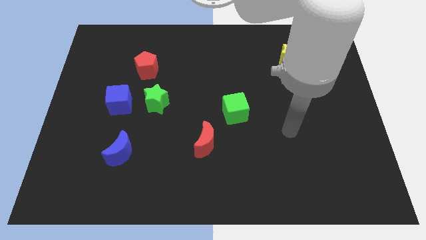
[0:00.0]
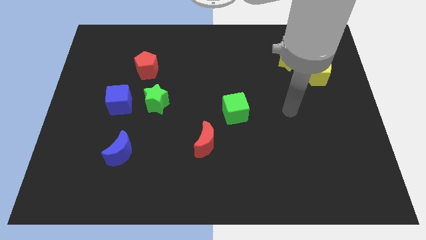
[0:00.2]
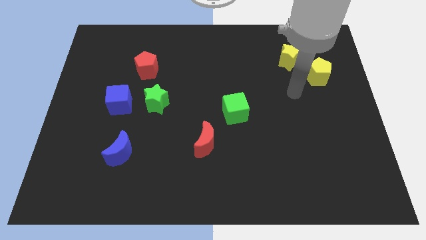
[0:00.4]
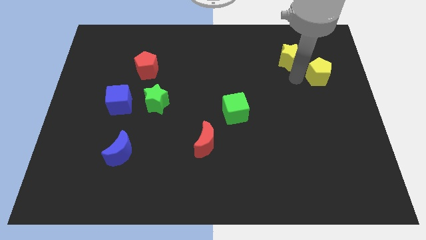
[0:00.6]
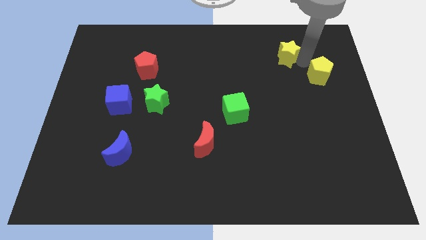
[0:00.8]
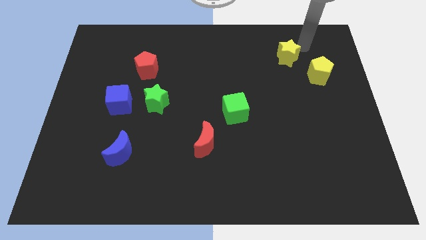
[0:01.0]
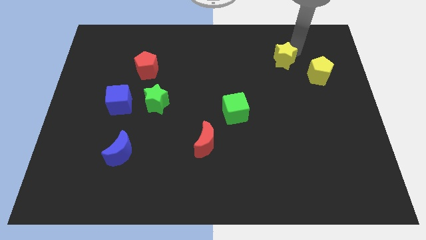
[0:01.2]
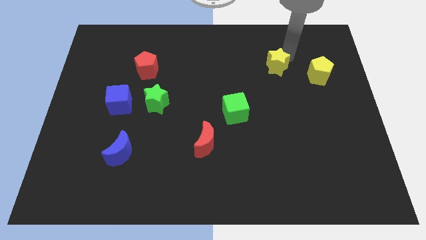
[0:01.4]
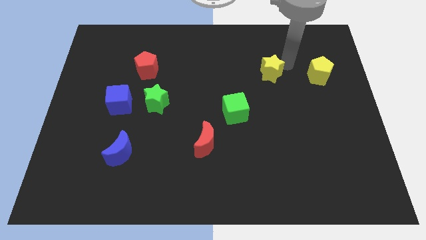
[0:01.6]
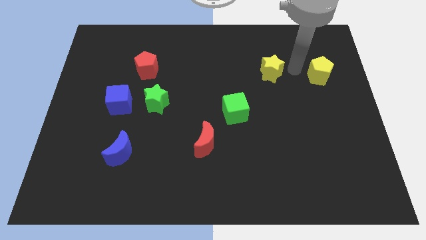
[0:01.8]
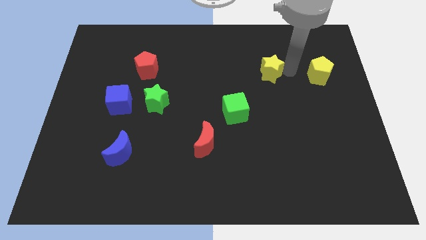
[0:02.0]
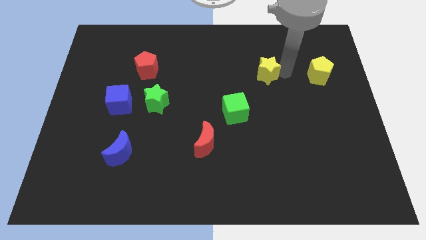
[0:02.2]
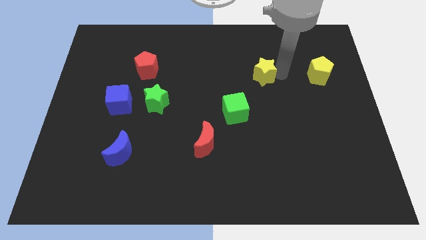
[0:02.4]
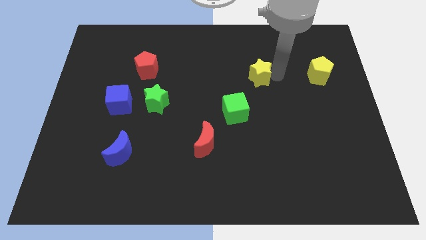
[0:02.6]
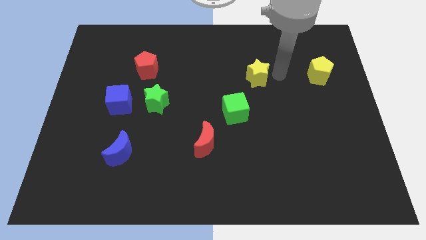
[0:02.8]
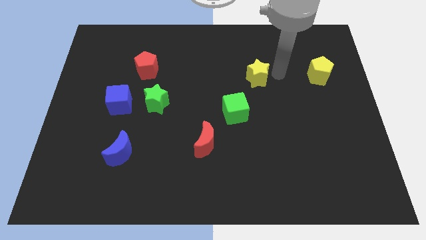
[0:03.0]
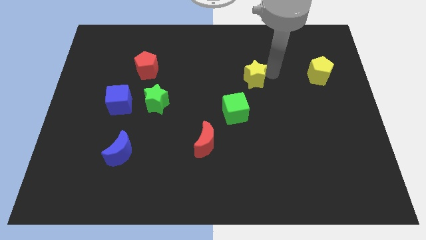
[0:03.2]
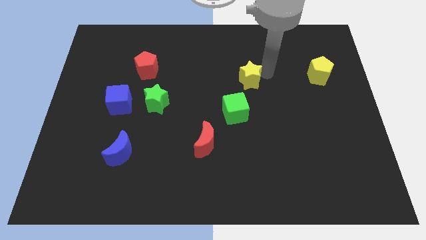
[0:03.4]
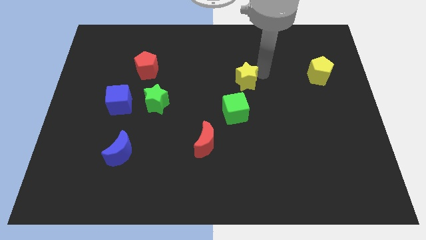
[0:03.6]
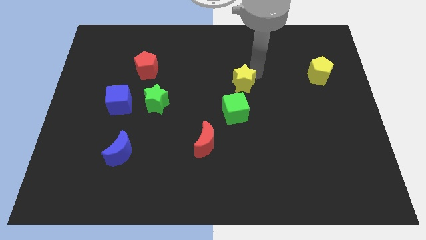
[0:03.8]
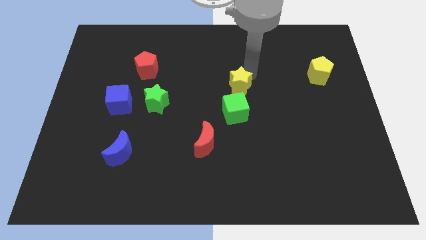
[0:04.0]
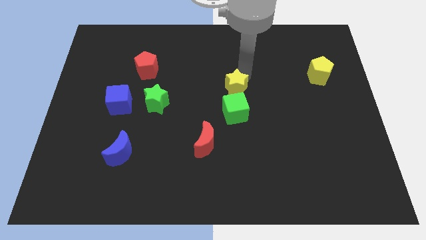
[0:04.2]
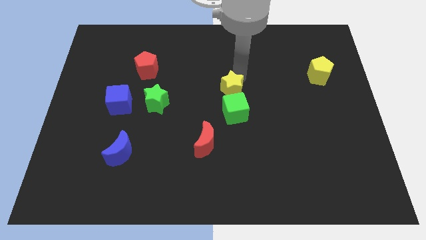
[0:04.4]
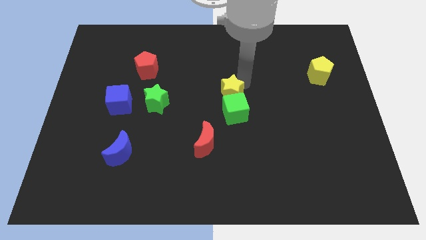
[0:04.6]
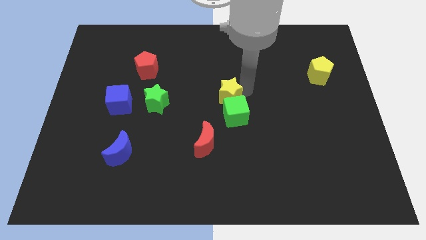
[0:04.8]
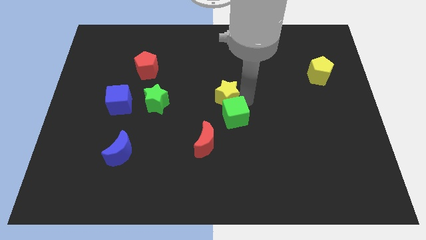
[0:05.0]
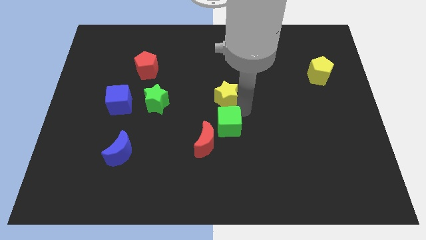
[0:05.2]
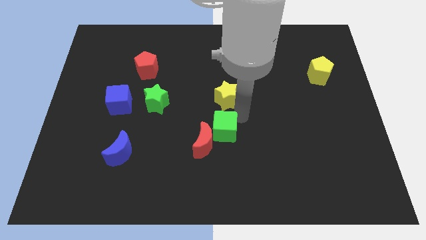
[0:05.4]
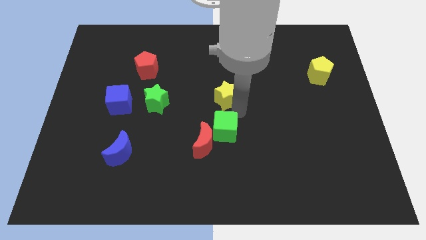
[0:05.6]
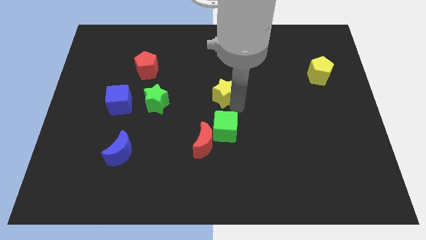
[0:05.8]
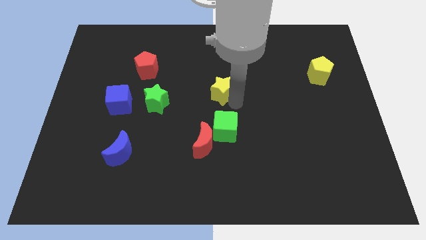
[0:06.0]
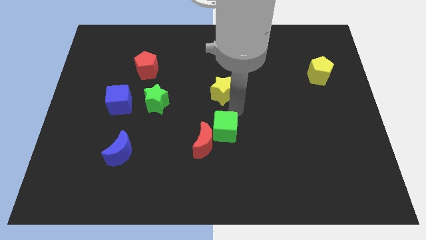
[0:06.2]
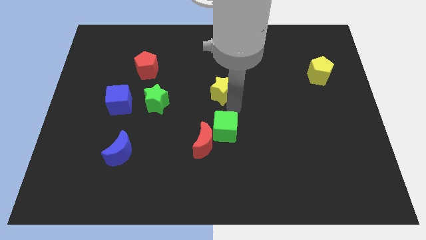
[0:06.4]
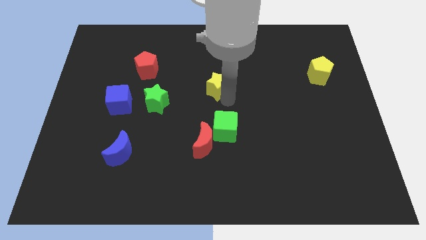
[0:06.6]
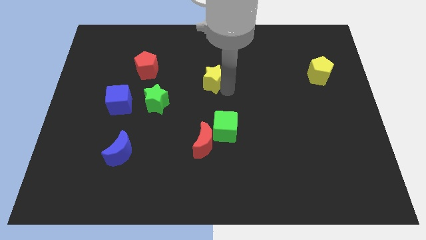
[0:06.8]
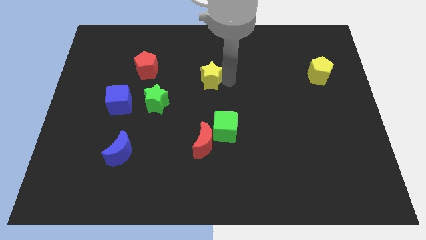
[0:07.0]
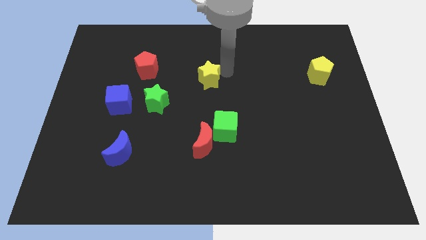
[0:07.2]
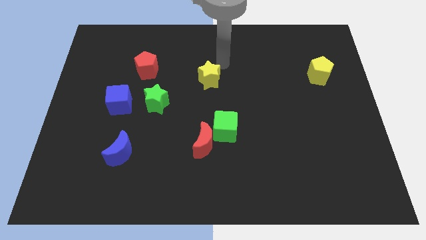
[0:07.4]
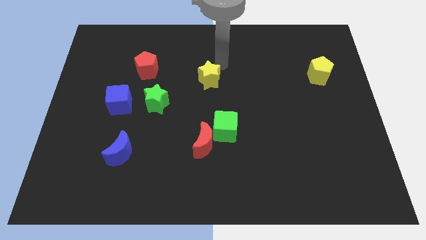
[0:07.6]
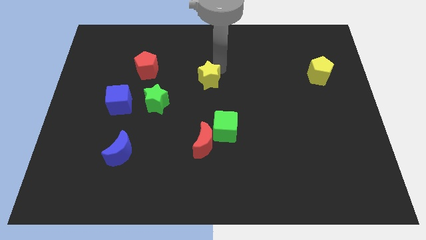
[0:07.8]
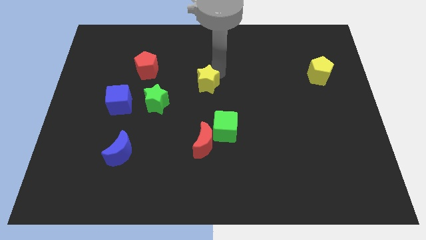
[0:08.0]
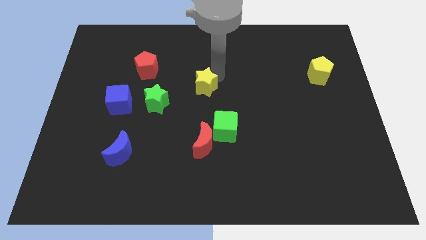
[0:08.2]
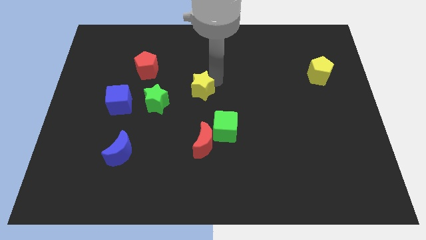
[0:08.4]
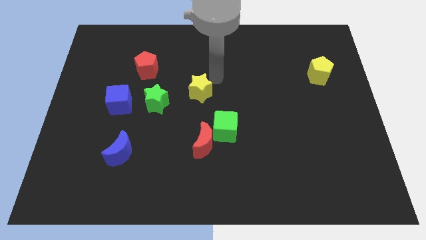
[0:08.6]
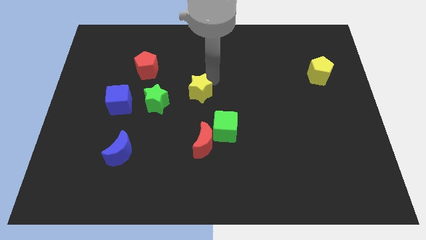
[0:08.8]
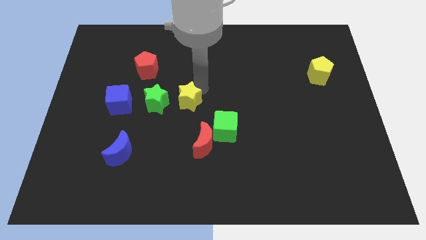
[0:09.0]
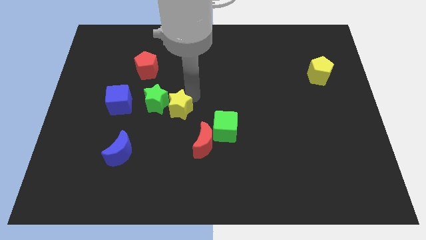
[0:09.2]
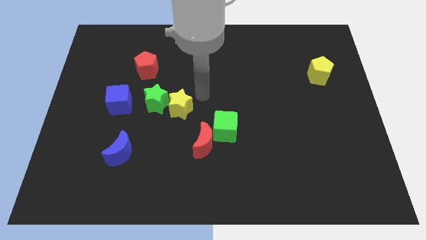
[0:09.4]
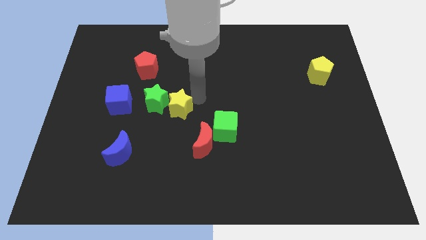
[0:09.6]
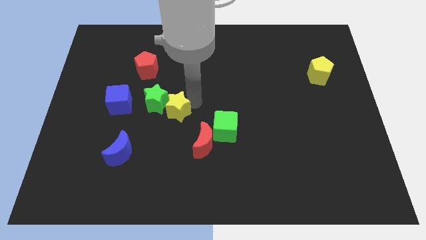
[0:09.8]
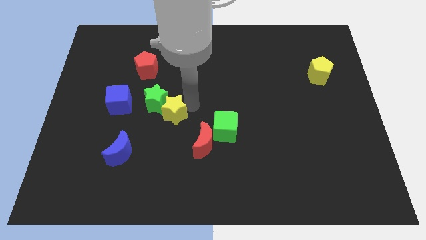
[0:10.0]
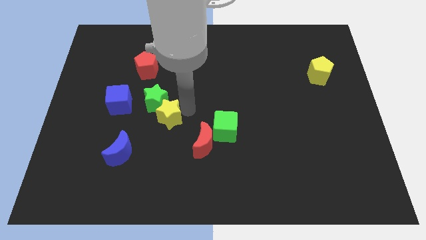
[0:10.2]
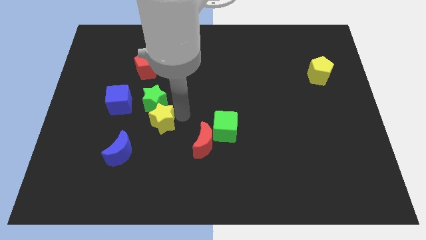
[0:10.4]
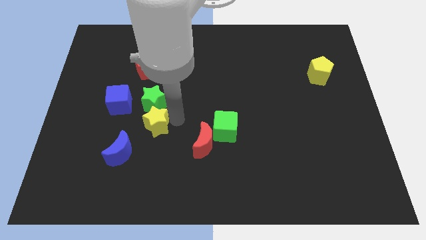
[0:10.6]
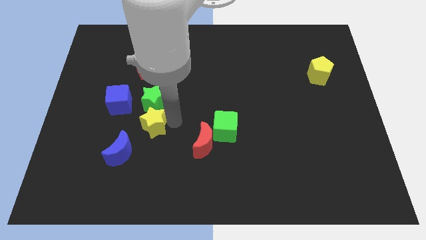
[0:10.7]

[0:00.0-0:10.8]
put the yellow star to the bottom left of the green star

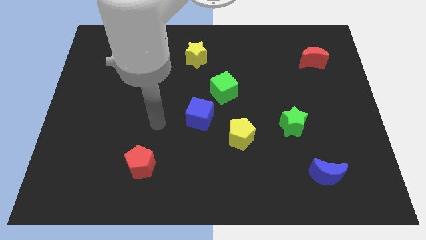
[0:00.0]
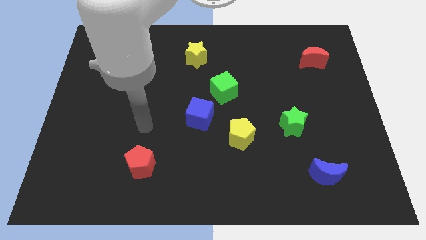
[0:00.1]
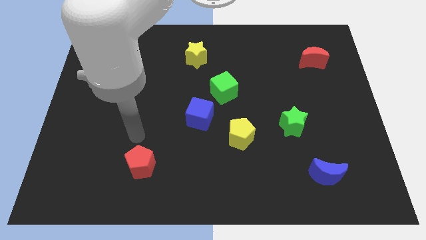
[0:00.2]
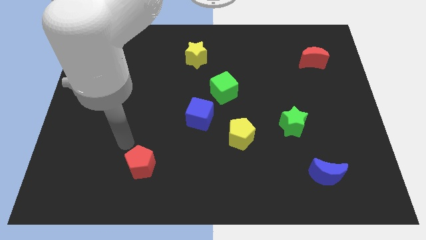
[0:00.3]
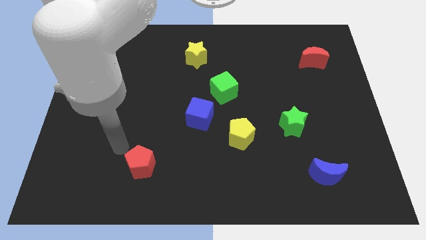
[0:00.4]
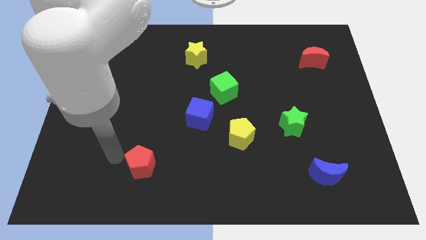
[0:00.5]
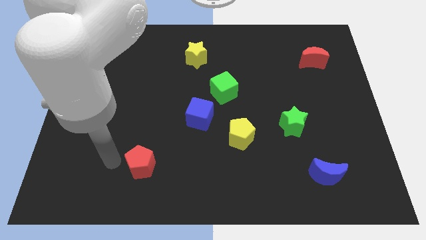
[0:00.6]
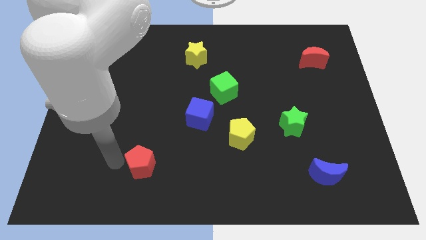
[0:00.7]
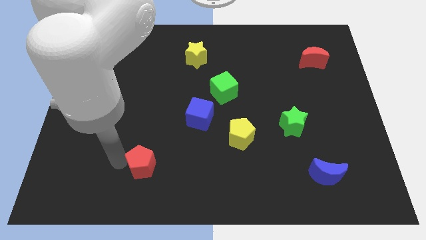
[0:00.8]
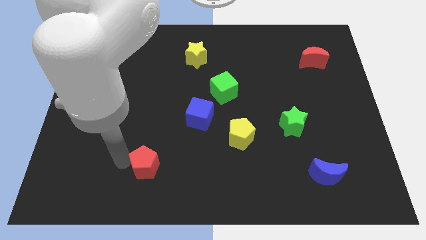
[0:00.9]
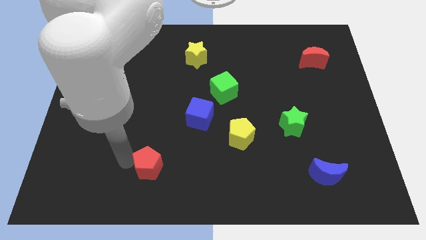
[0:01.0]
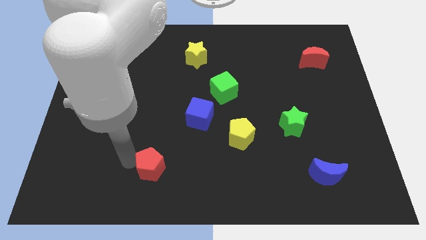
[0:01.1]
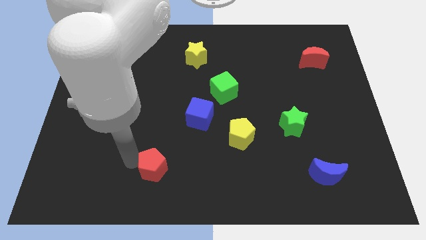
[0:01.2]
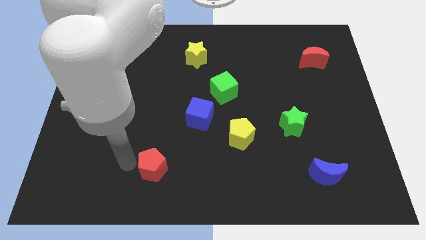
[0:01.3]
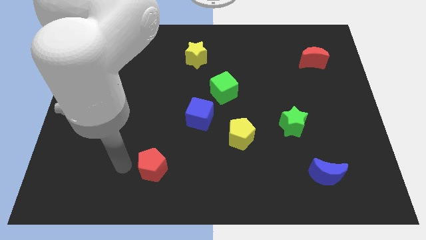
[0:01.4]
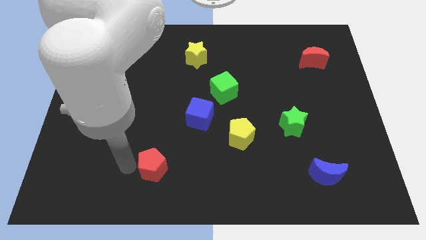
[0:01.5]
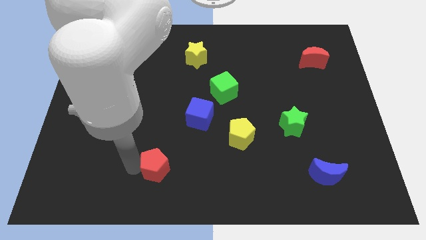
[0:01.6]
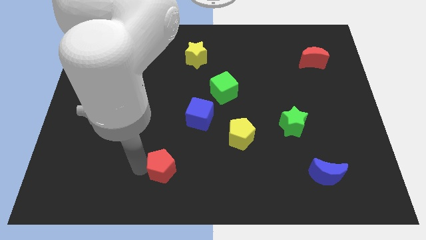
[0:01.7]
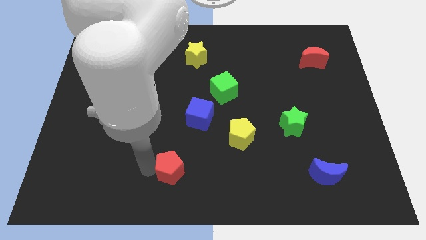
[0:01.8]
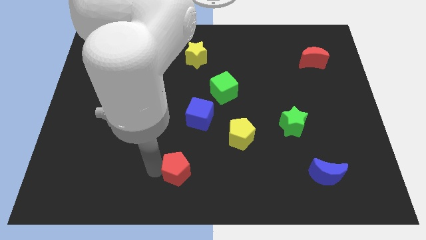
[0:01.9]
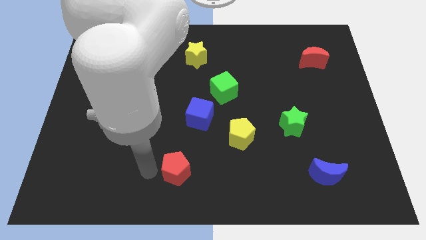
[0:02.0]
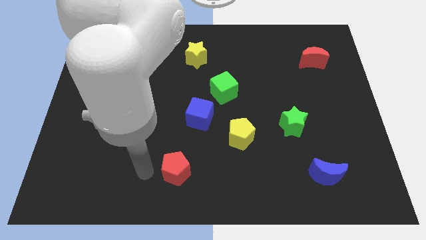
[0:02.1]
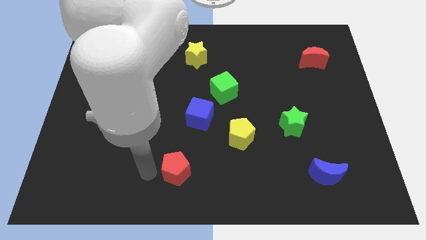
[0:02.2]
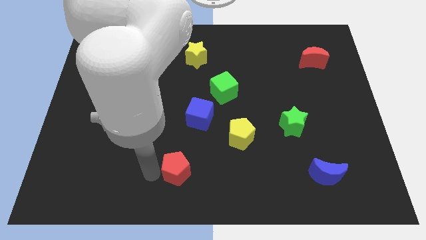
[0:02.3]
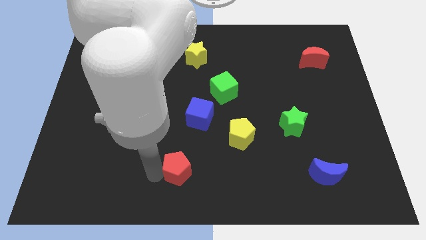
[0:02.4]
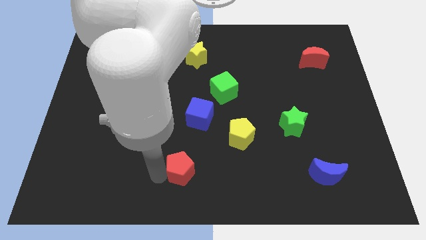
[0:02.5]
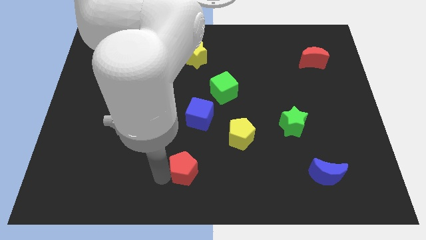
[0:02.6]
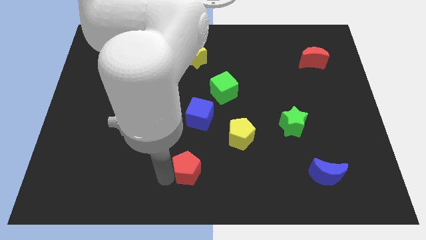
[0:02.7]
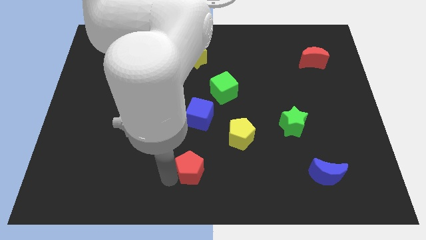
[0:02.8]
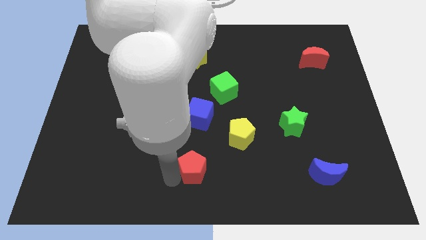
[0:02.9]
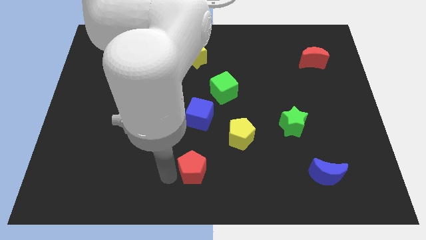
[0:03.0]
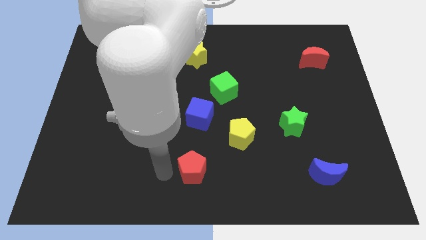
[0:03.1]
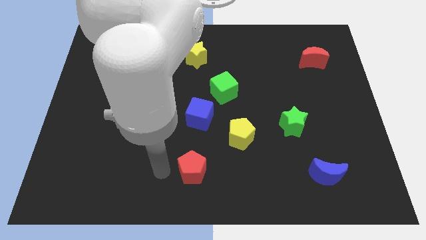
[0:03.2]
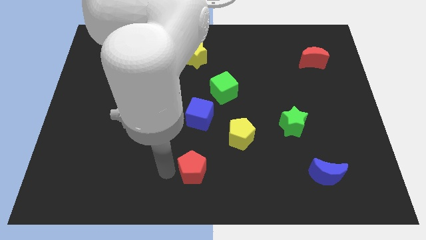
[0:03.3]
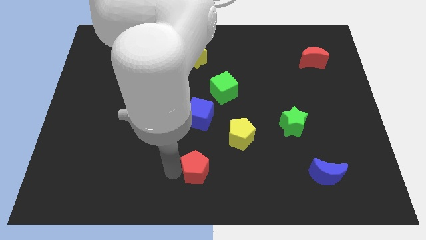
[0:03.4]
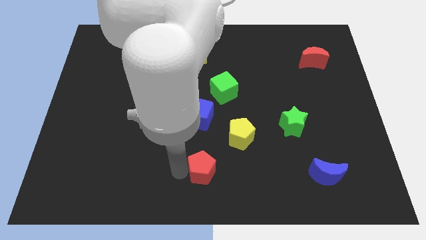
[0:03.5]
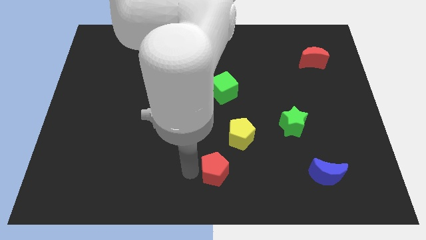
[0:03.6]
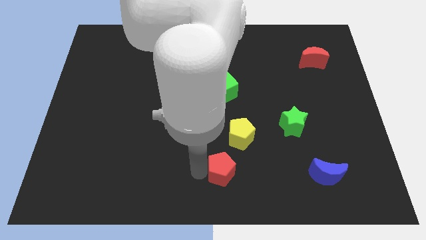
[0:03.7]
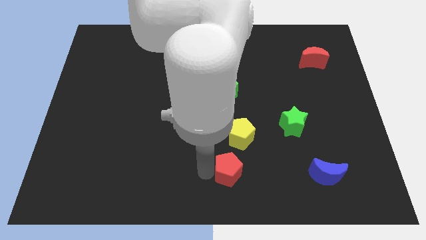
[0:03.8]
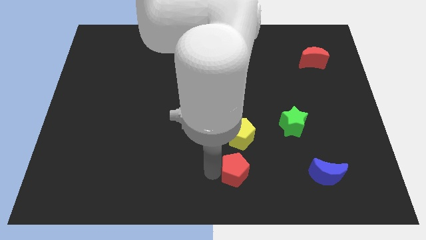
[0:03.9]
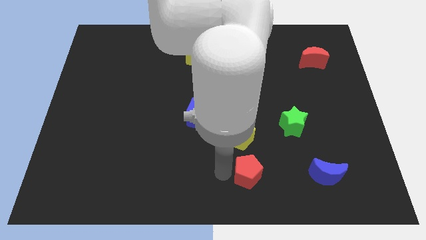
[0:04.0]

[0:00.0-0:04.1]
slide the red pentagon just left of the blue moon
